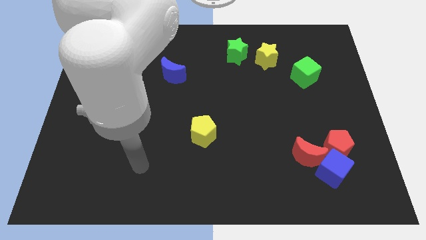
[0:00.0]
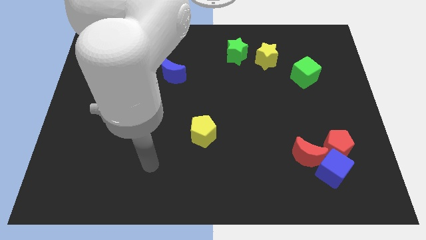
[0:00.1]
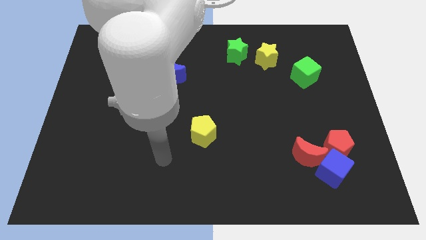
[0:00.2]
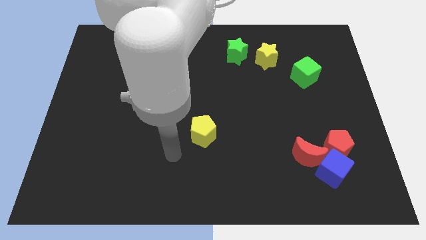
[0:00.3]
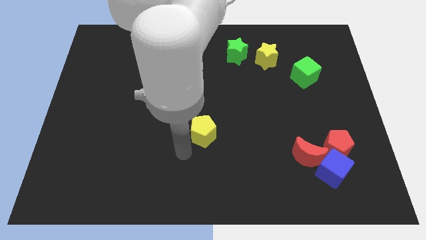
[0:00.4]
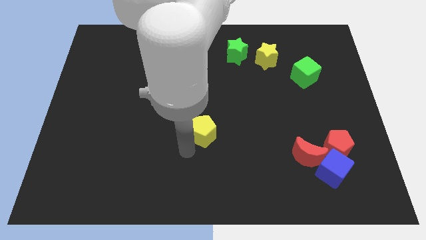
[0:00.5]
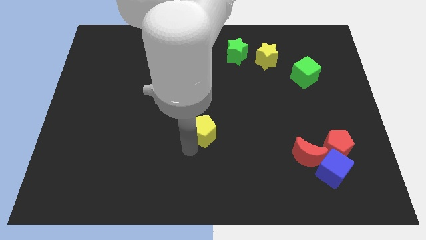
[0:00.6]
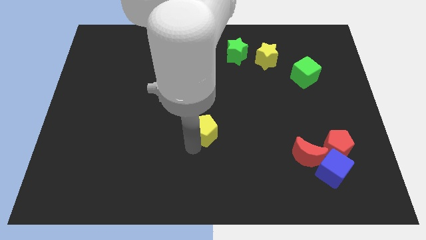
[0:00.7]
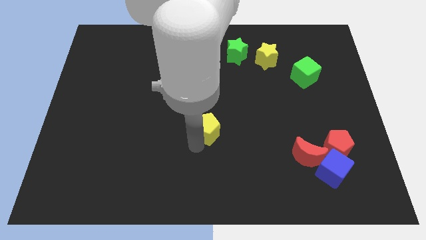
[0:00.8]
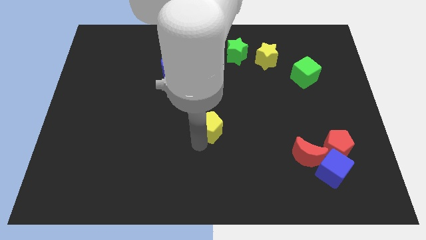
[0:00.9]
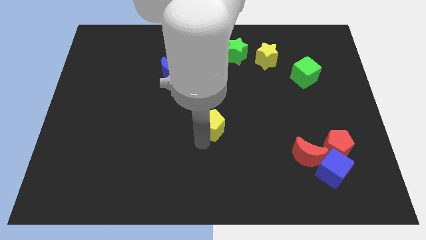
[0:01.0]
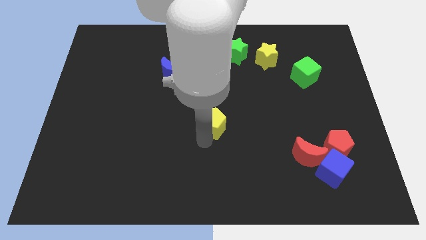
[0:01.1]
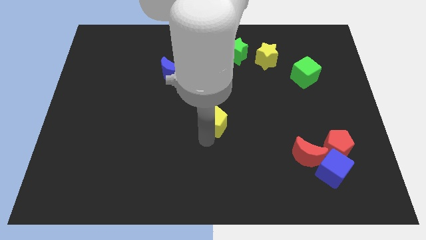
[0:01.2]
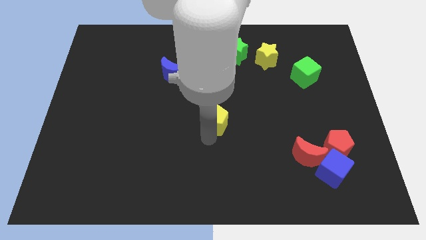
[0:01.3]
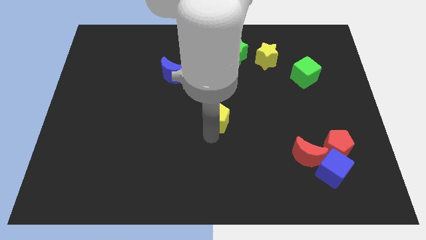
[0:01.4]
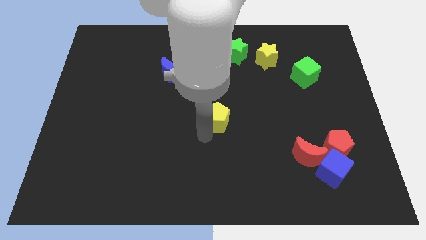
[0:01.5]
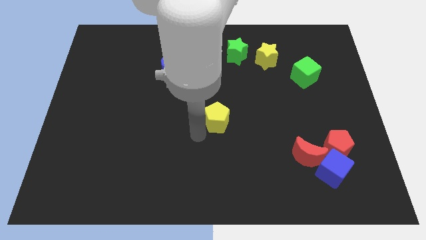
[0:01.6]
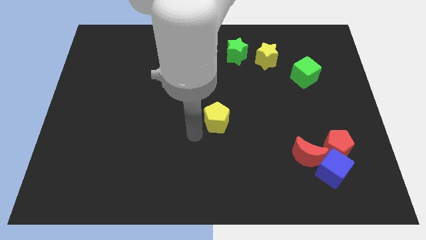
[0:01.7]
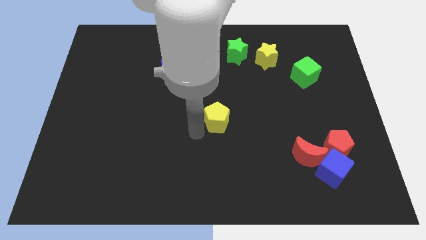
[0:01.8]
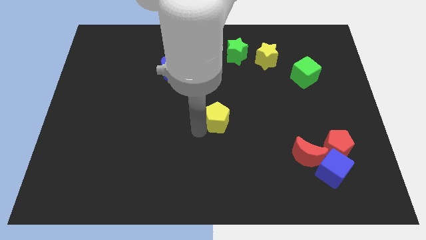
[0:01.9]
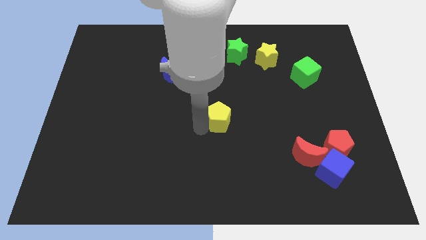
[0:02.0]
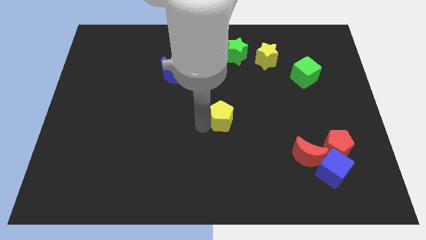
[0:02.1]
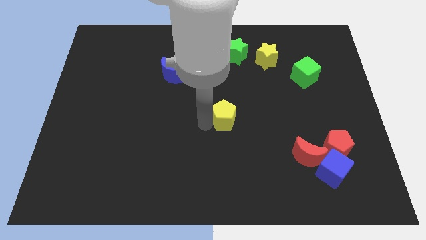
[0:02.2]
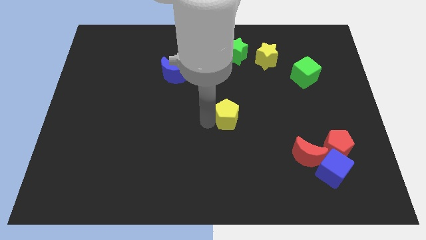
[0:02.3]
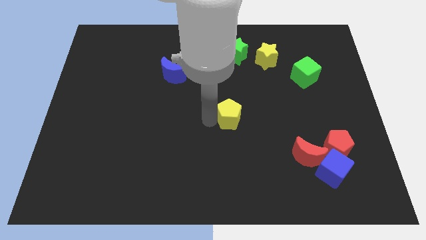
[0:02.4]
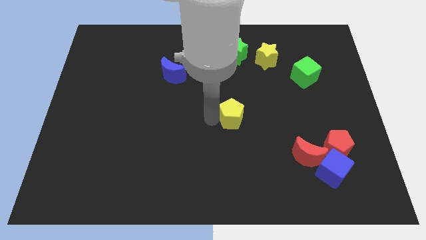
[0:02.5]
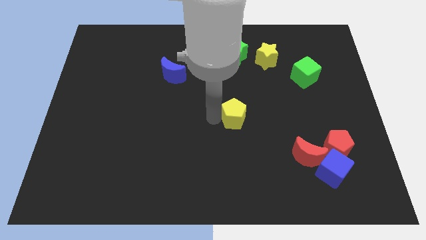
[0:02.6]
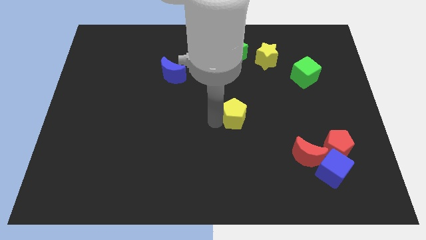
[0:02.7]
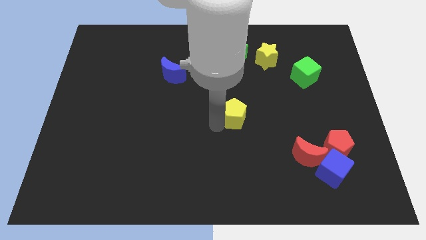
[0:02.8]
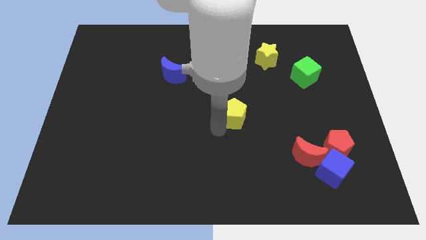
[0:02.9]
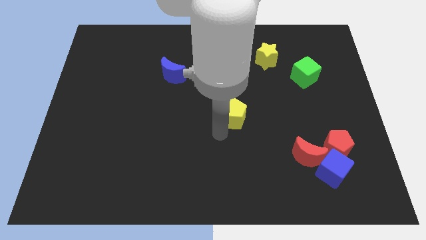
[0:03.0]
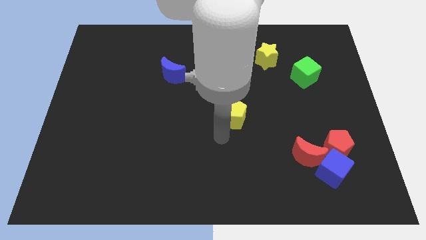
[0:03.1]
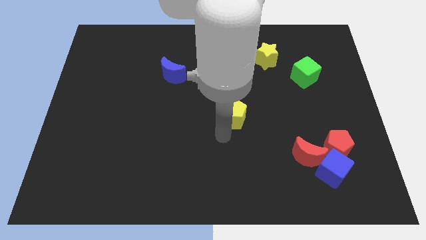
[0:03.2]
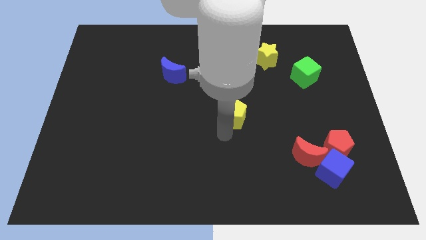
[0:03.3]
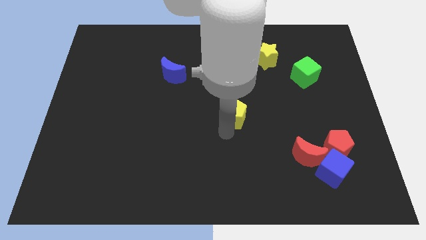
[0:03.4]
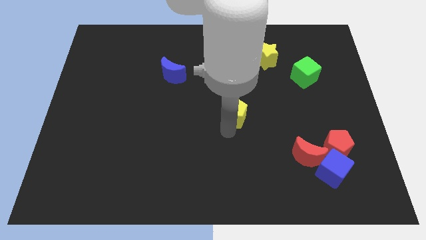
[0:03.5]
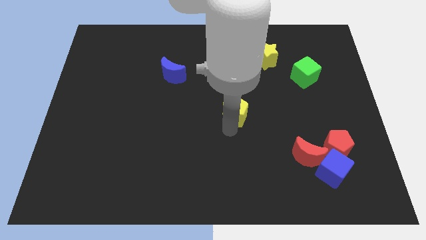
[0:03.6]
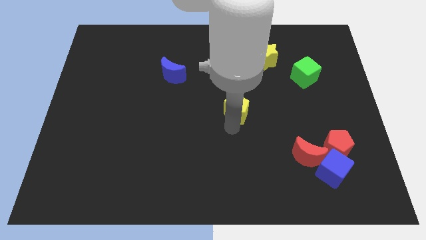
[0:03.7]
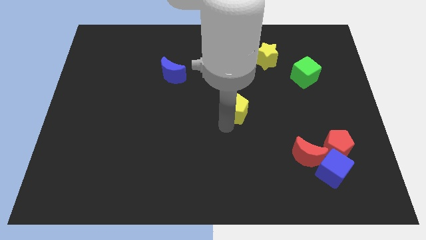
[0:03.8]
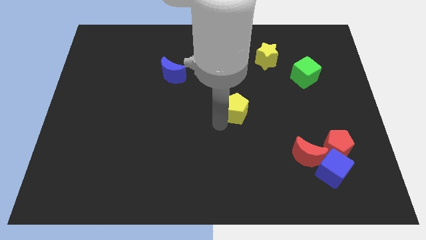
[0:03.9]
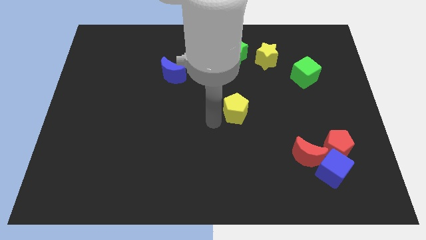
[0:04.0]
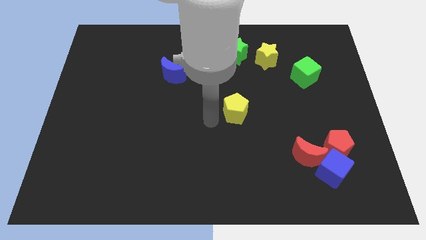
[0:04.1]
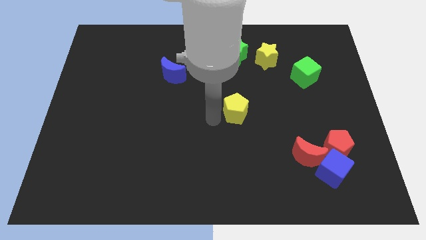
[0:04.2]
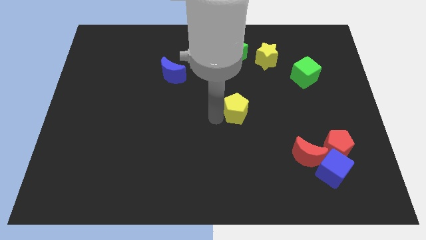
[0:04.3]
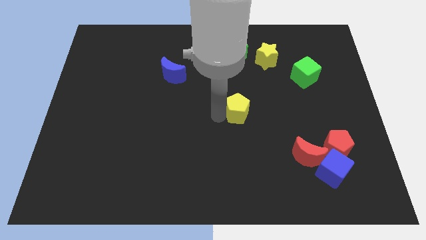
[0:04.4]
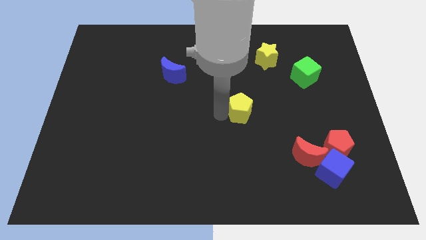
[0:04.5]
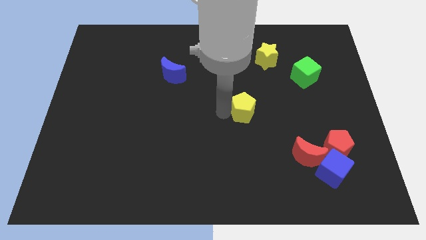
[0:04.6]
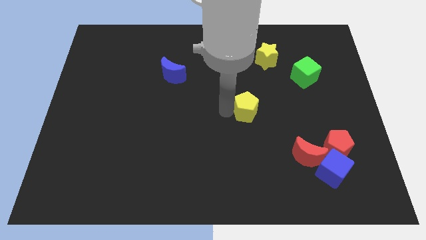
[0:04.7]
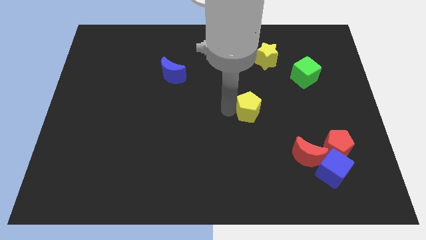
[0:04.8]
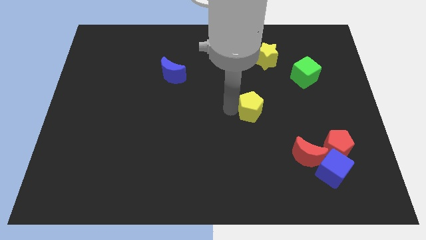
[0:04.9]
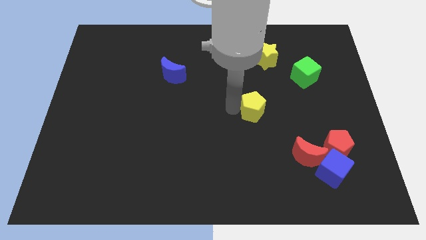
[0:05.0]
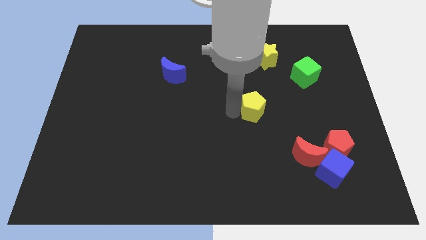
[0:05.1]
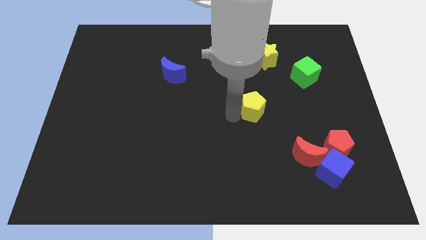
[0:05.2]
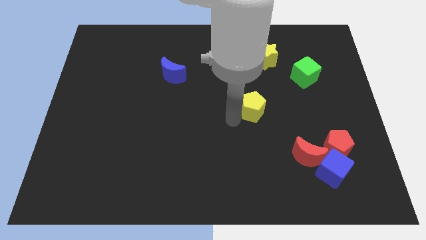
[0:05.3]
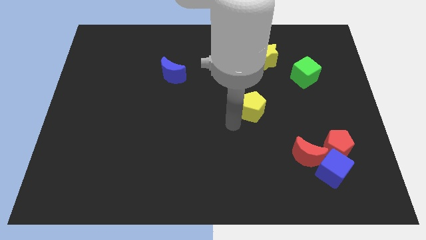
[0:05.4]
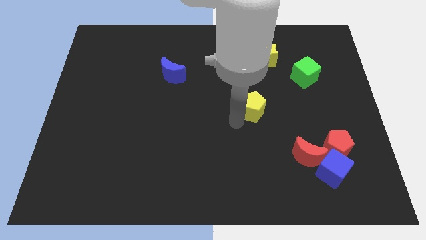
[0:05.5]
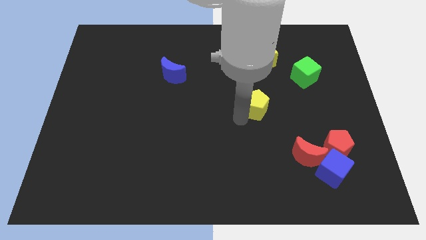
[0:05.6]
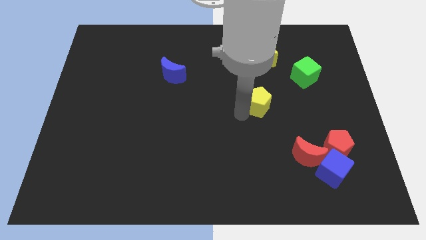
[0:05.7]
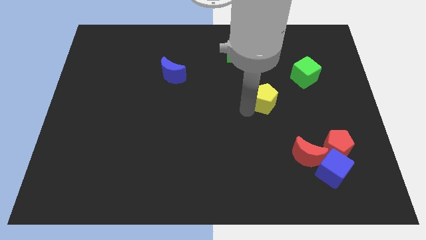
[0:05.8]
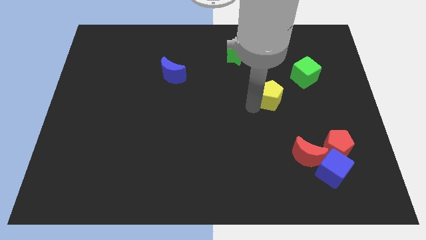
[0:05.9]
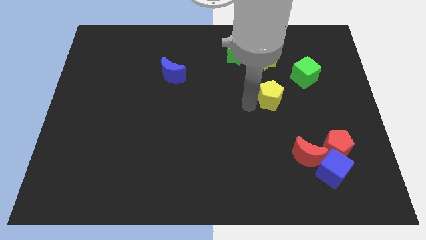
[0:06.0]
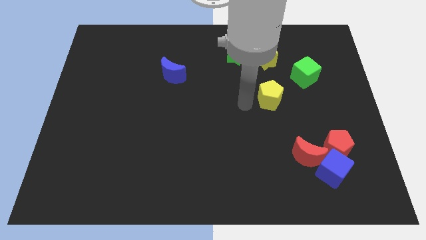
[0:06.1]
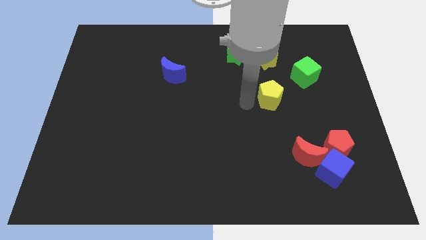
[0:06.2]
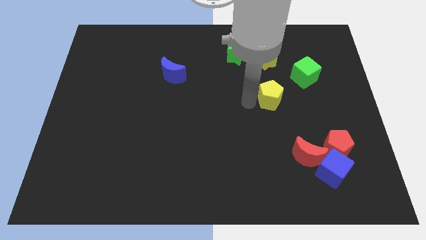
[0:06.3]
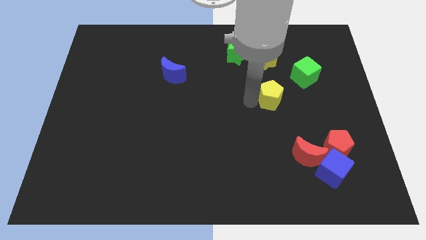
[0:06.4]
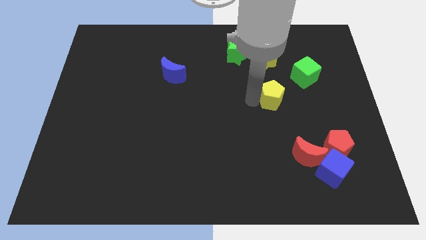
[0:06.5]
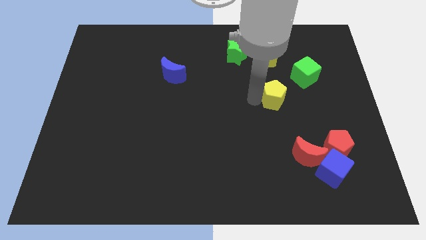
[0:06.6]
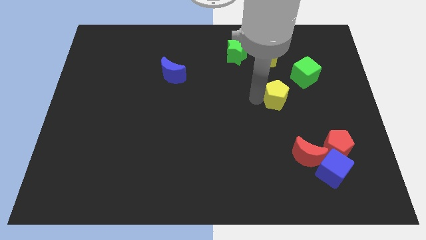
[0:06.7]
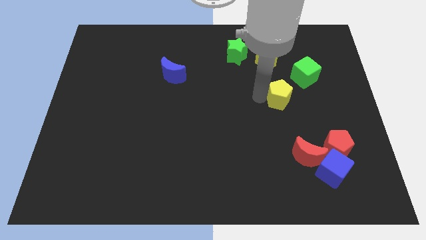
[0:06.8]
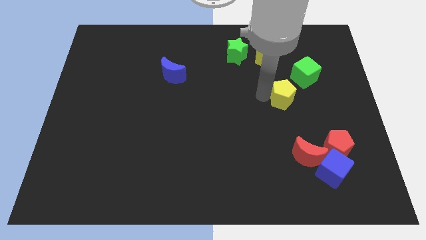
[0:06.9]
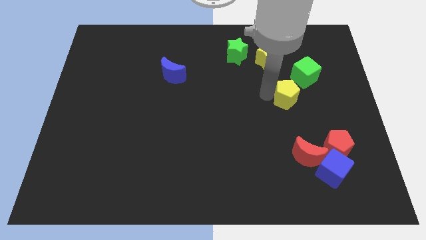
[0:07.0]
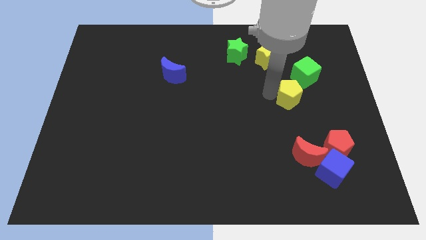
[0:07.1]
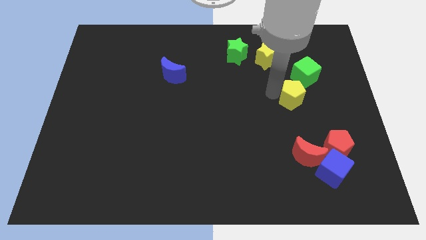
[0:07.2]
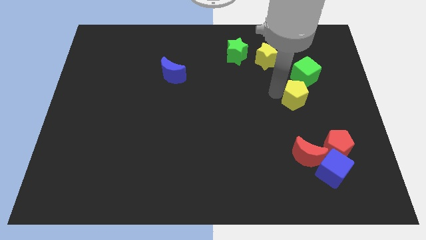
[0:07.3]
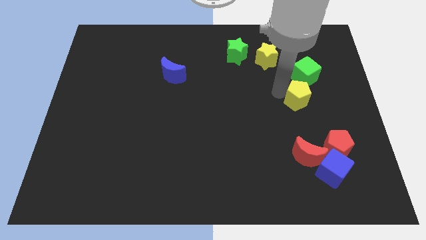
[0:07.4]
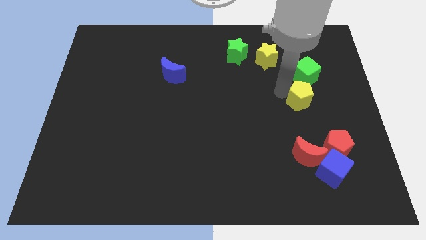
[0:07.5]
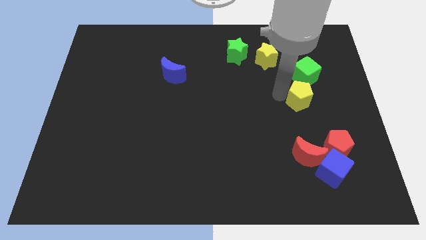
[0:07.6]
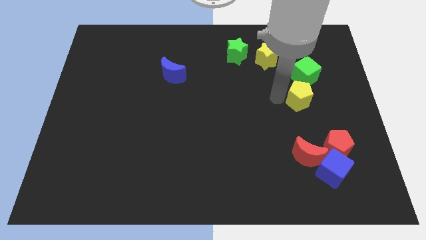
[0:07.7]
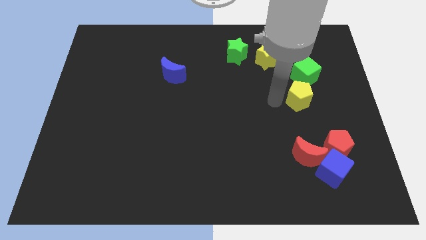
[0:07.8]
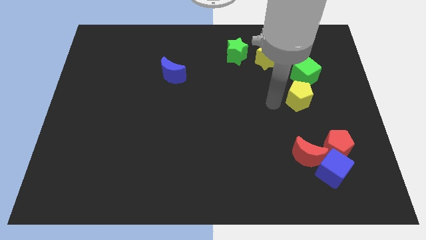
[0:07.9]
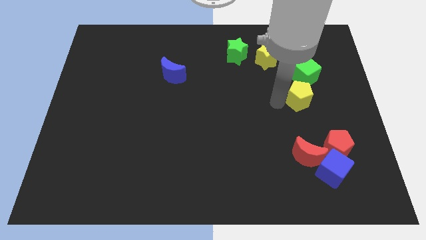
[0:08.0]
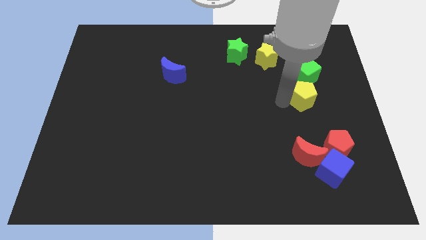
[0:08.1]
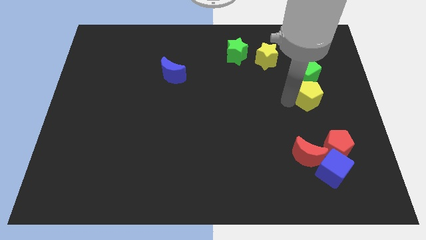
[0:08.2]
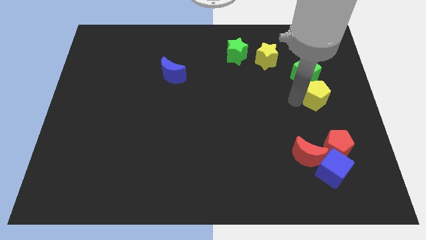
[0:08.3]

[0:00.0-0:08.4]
slide the yellow pentagon to the bottom right side of the green cube
